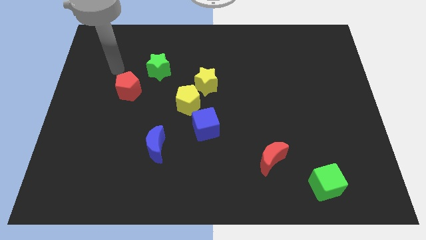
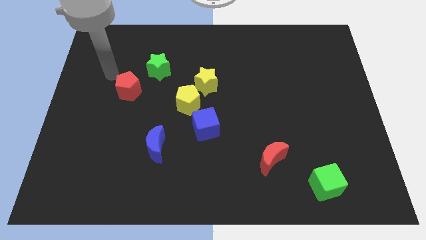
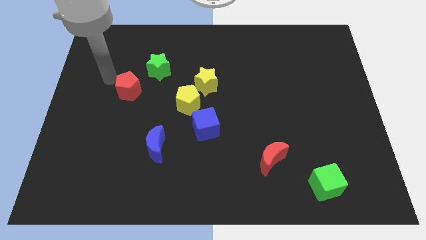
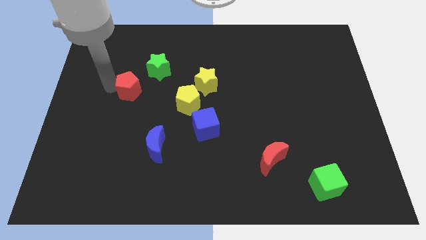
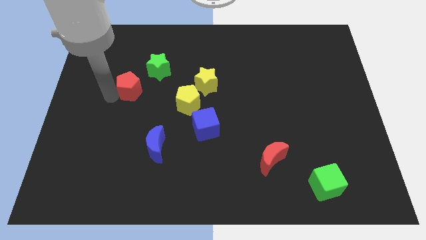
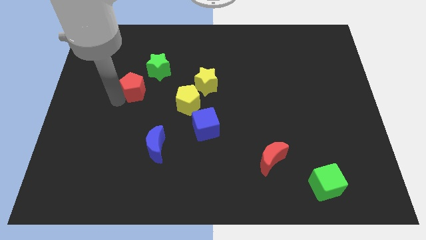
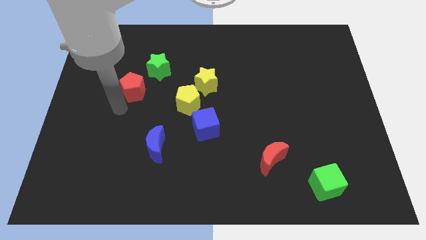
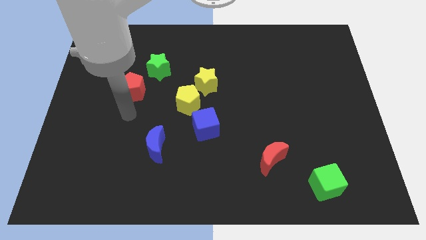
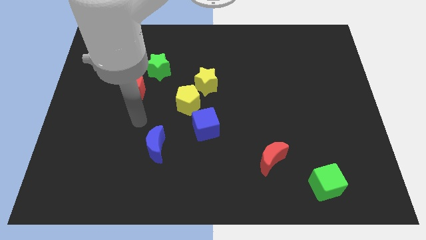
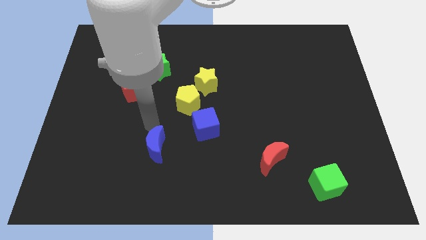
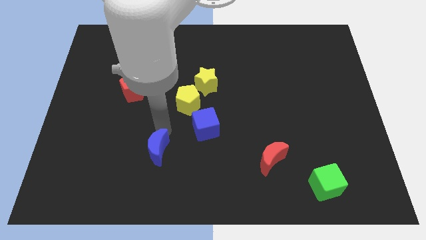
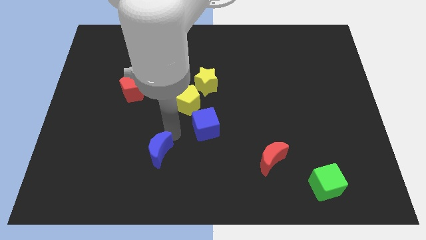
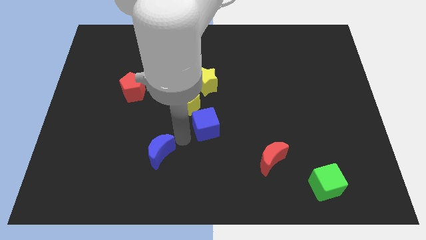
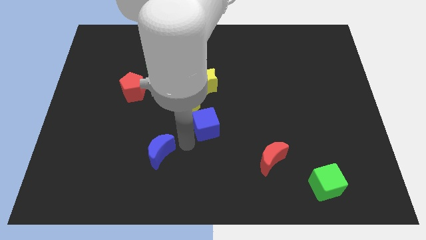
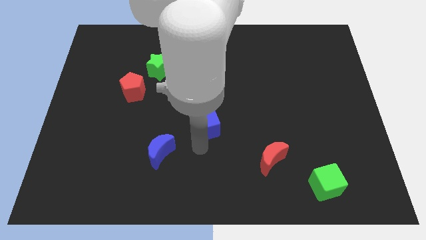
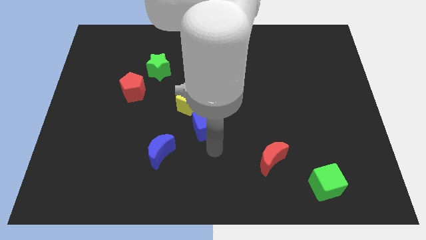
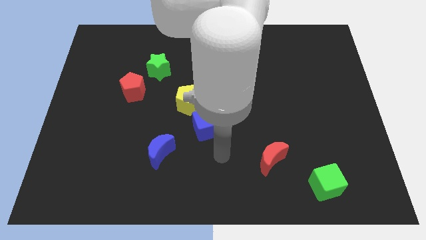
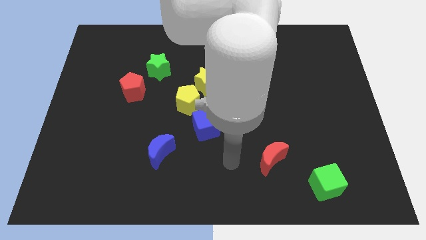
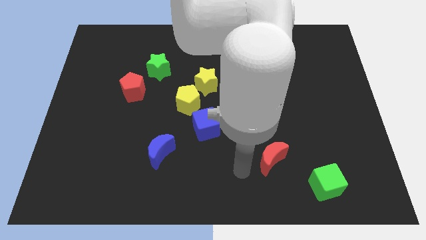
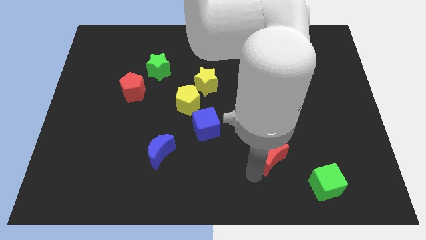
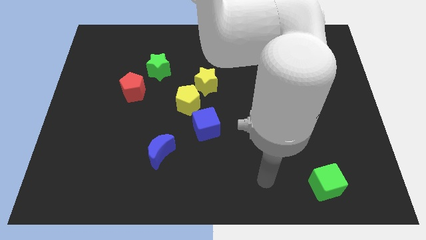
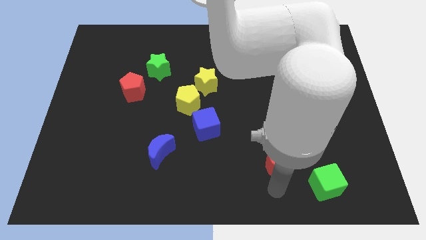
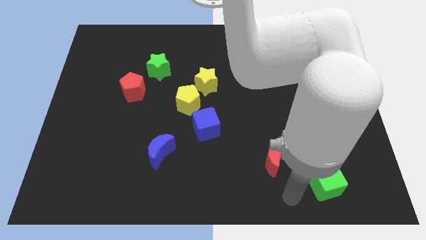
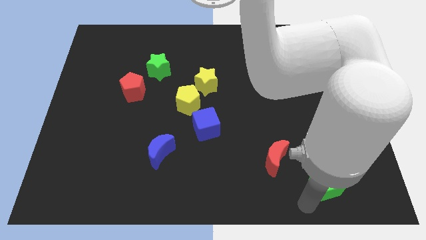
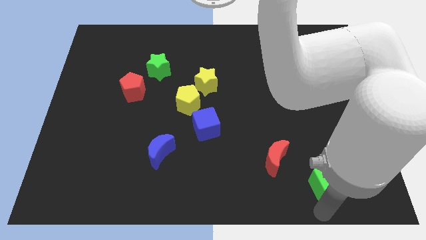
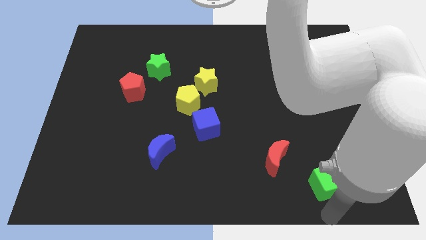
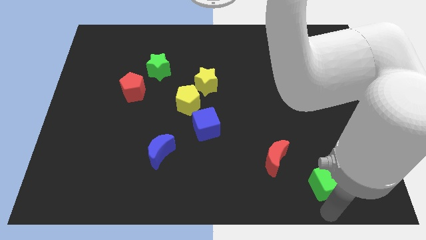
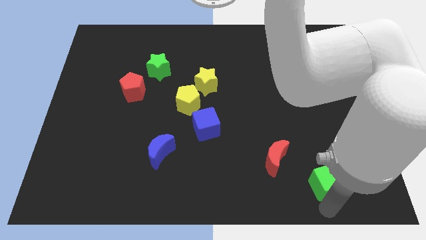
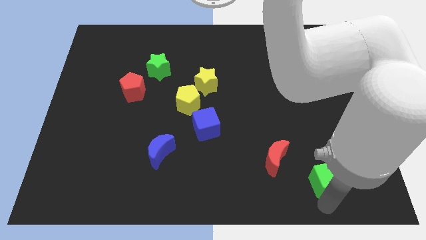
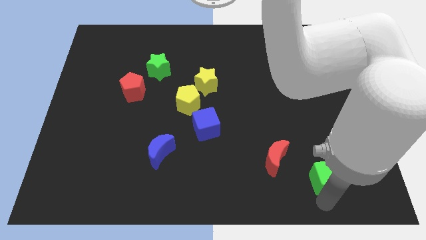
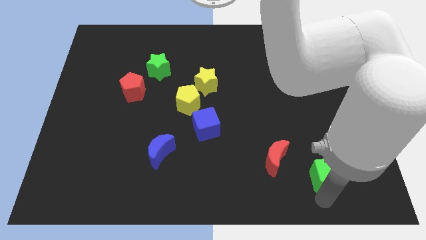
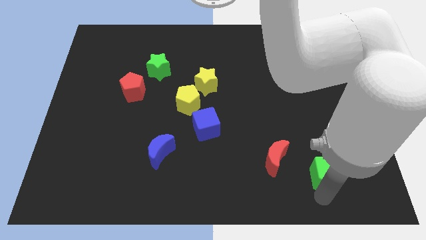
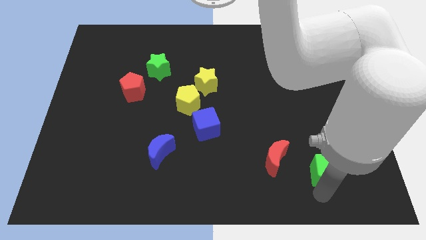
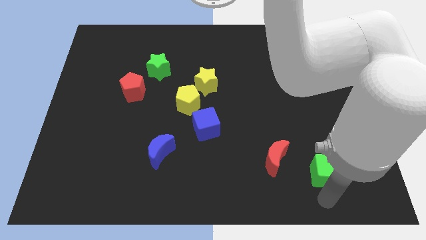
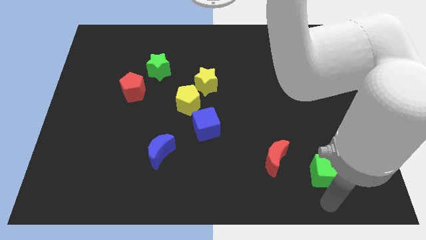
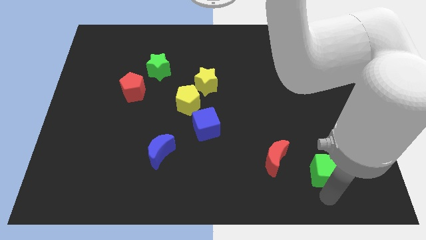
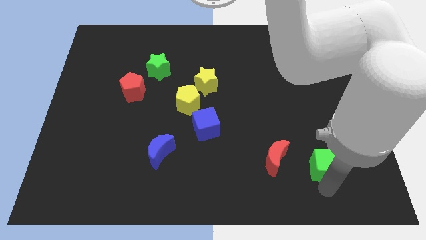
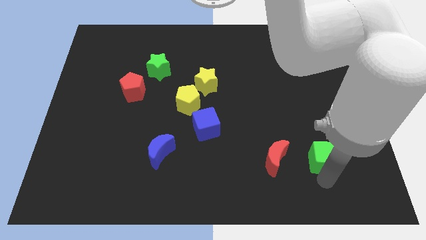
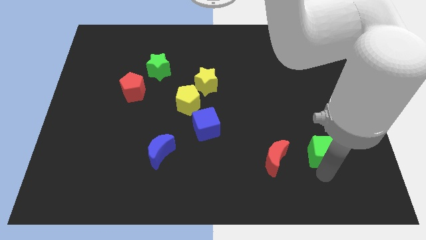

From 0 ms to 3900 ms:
slightly move the green cube upwards

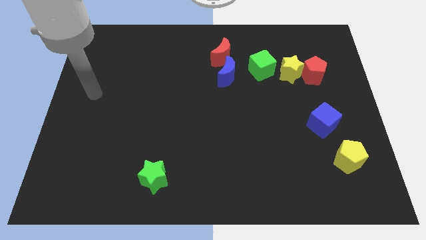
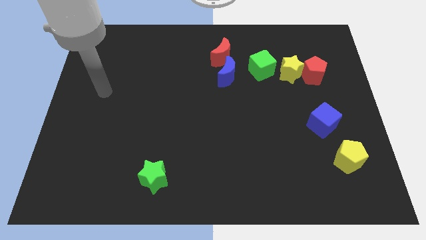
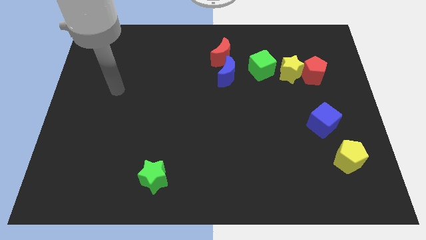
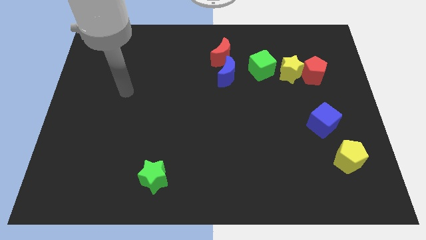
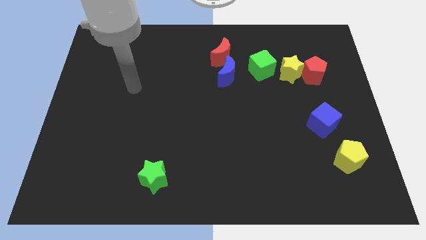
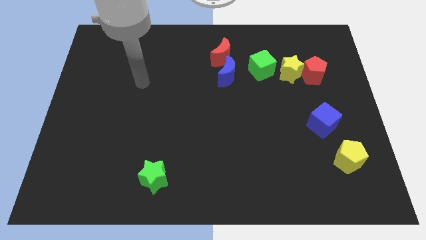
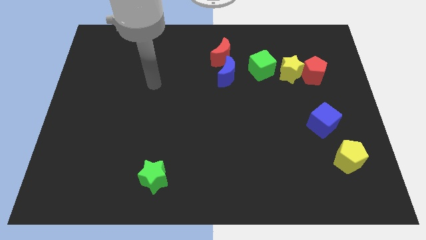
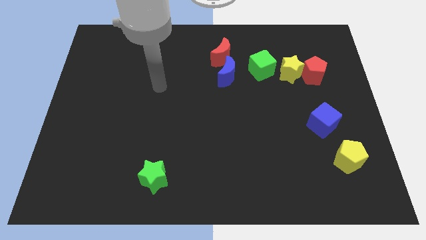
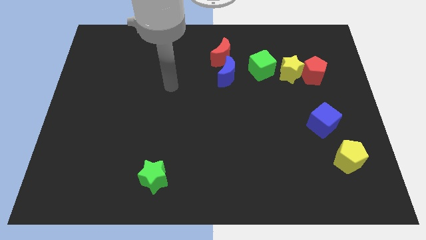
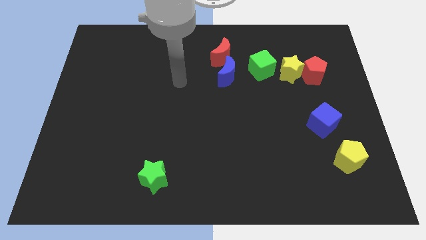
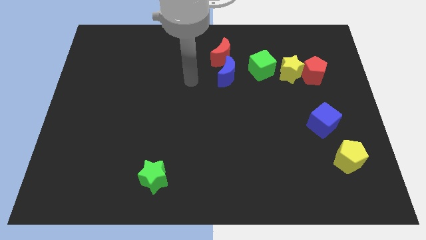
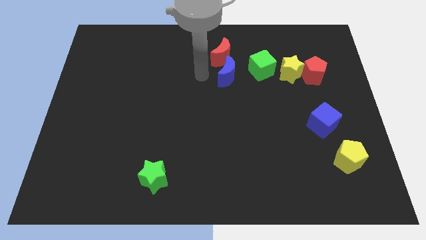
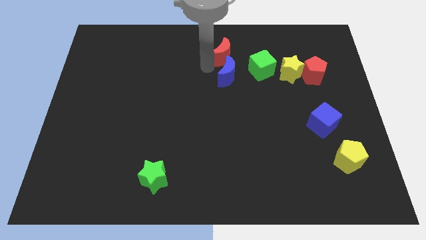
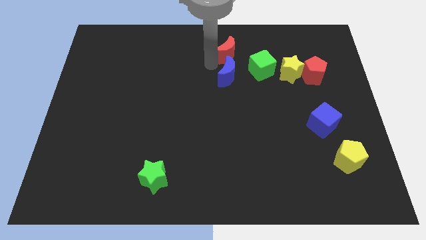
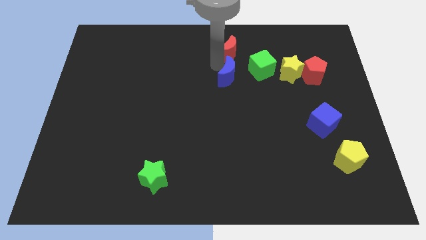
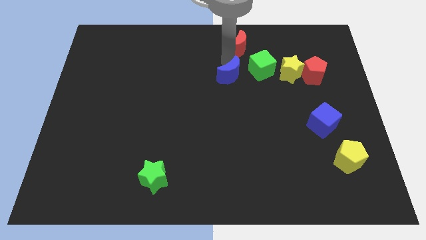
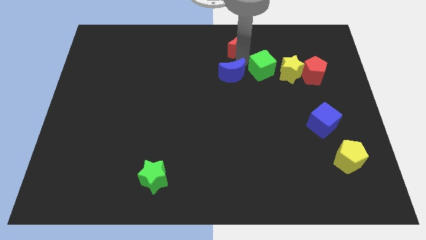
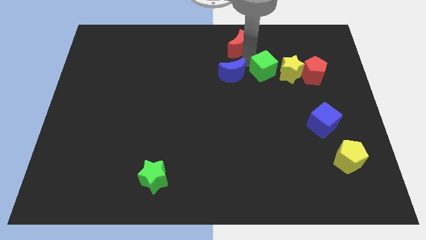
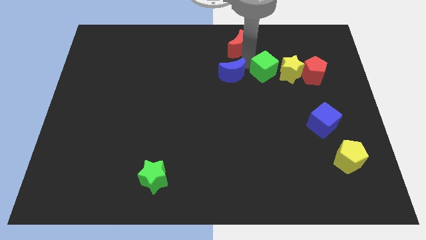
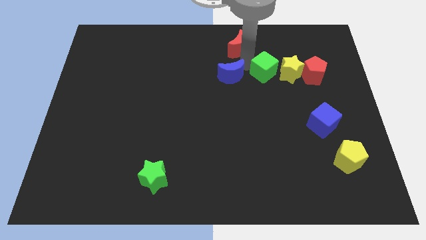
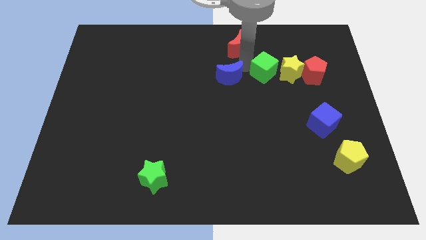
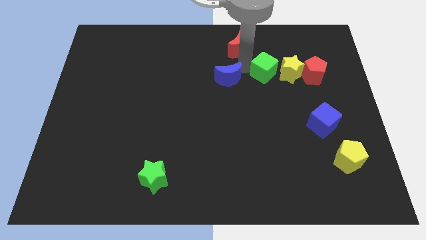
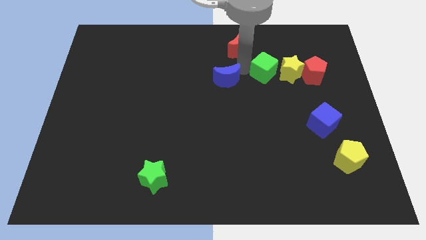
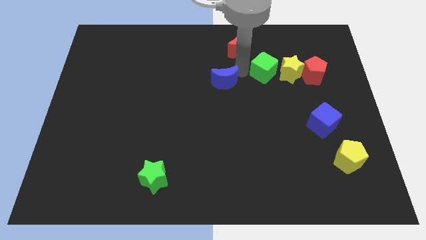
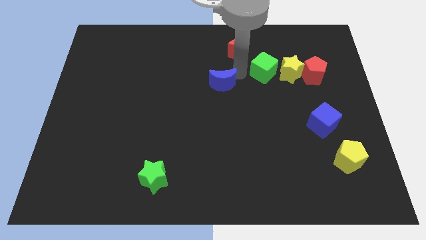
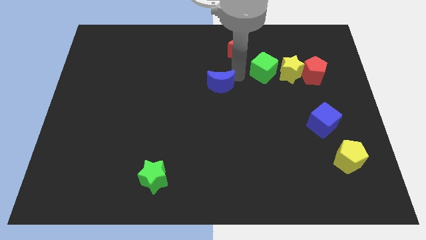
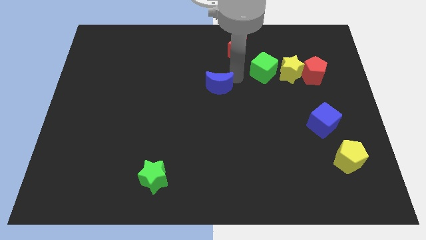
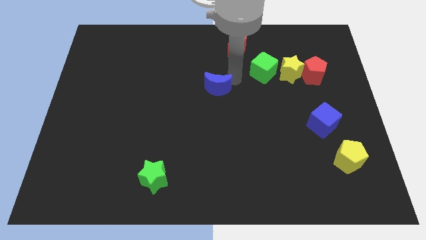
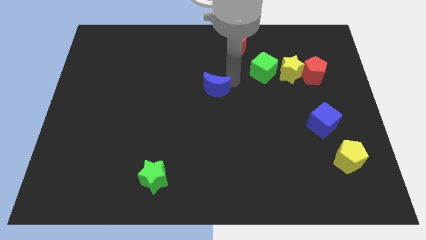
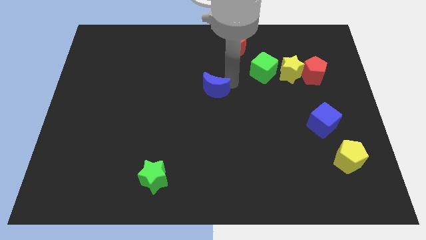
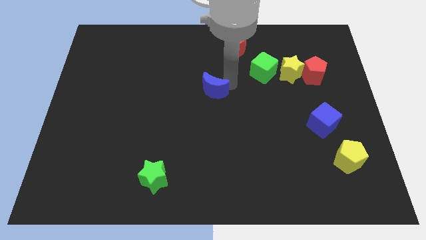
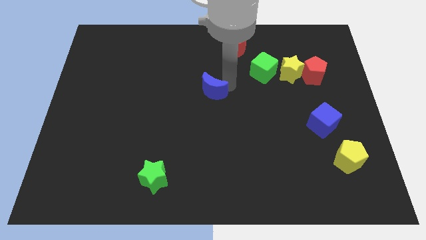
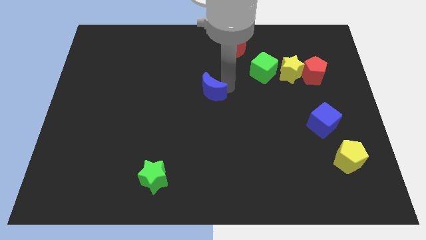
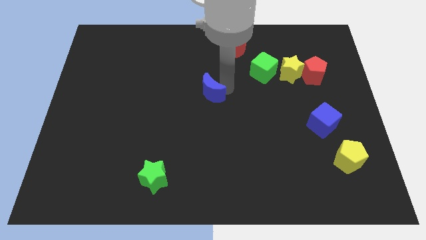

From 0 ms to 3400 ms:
slightly slide the blue moon downwards and left diagonally

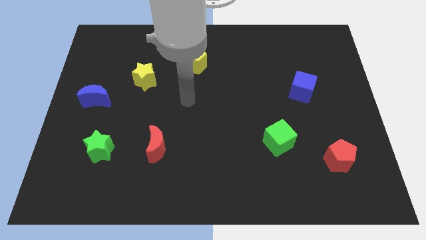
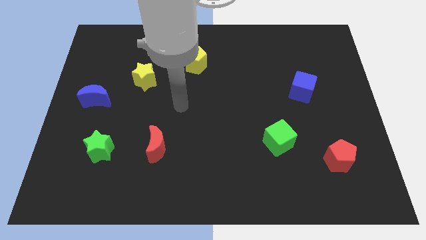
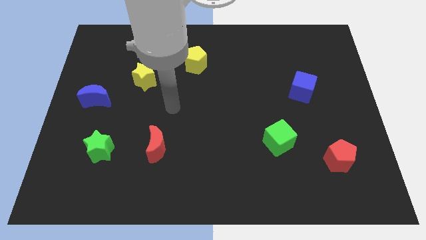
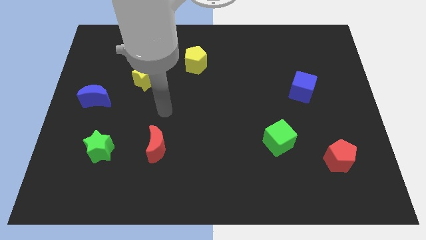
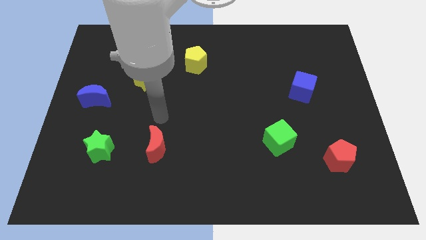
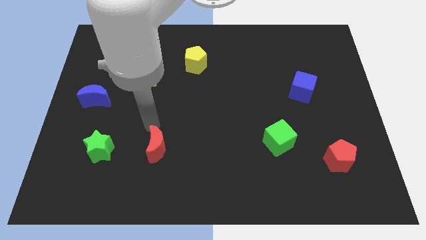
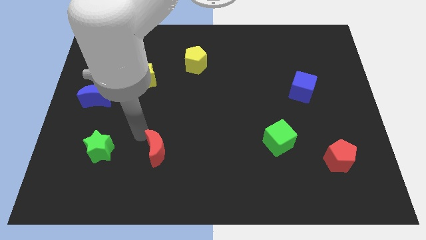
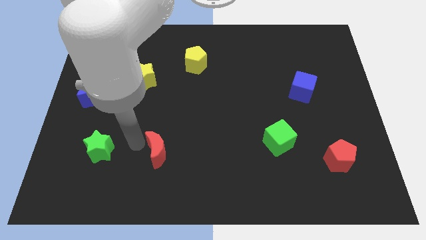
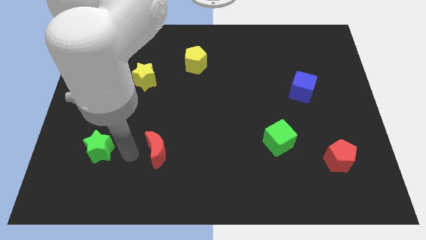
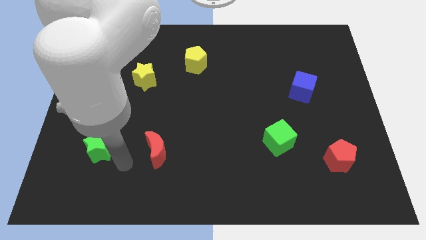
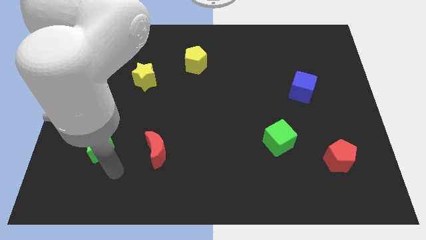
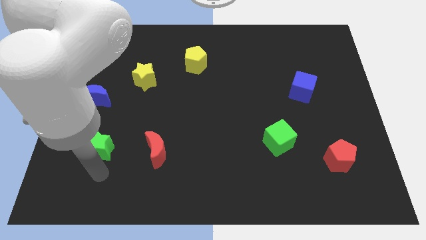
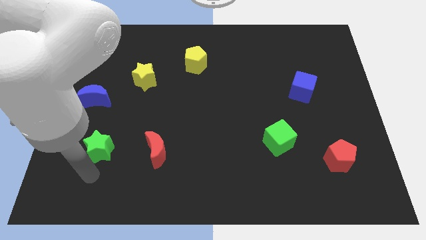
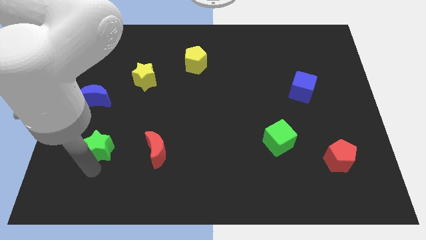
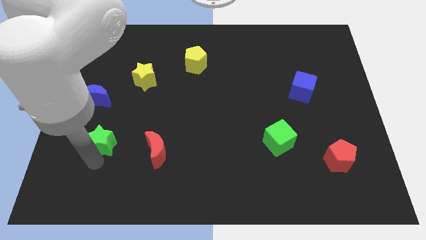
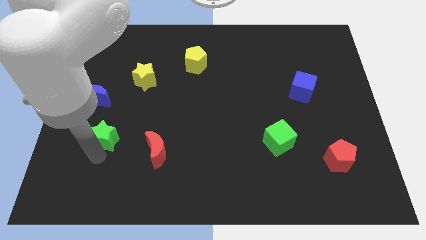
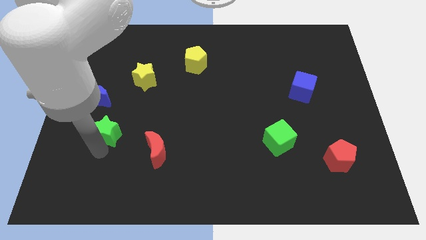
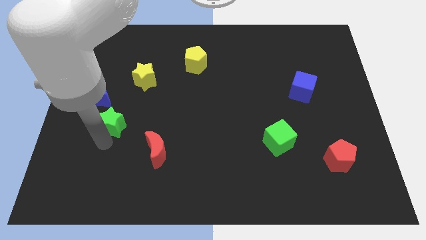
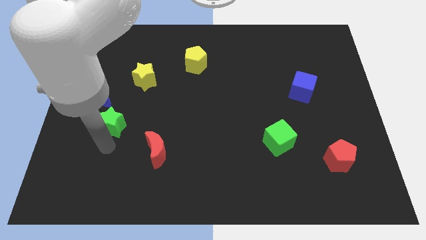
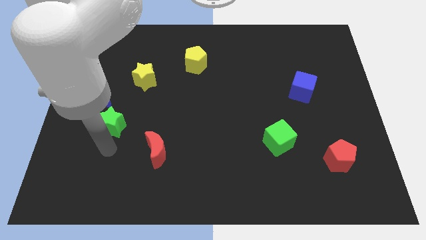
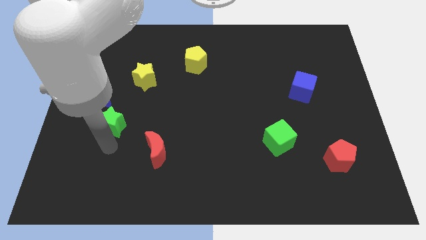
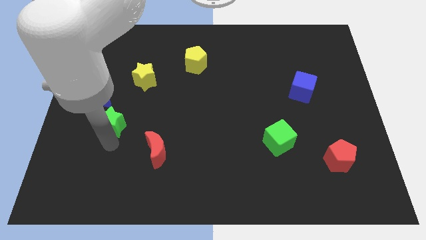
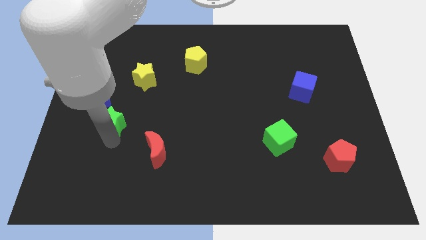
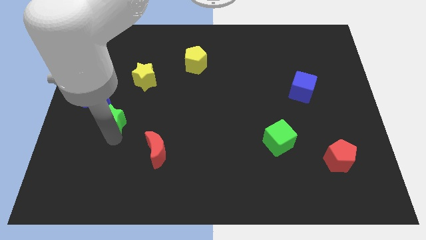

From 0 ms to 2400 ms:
move the green star a little bit up
